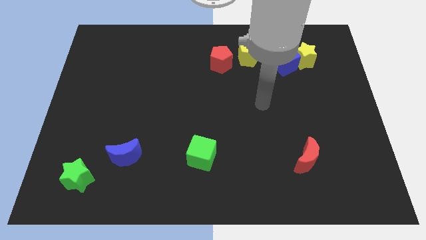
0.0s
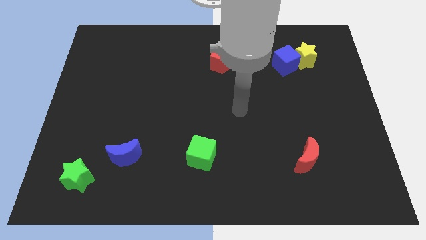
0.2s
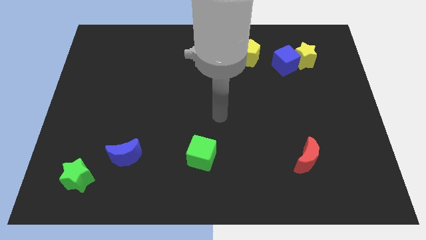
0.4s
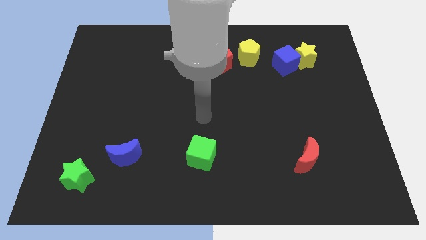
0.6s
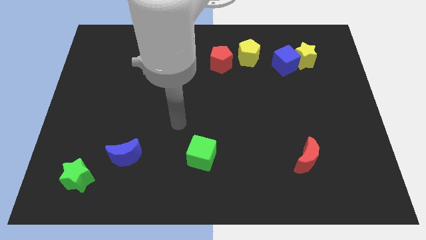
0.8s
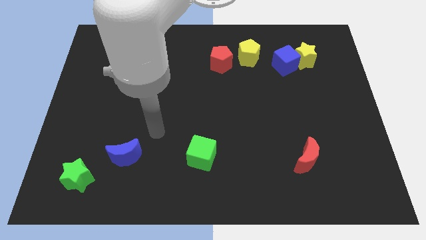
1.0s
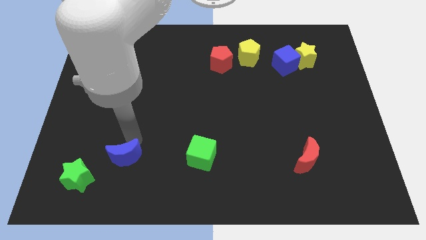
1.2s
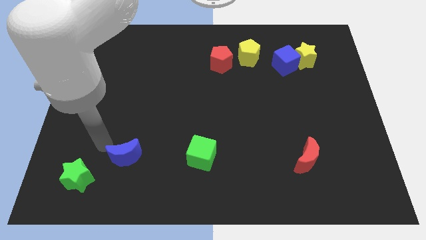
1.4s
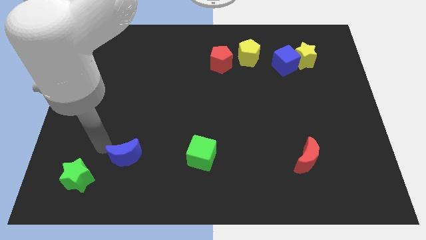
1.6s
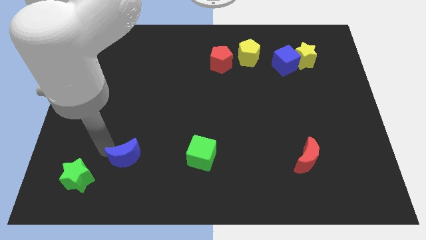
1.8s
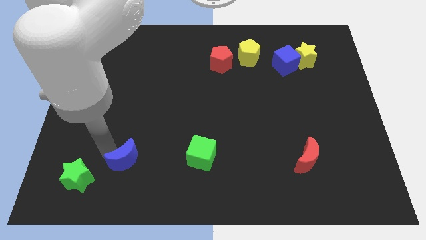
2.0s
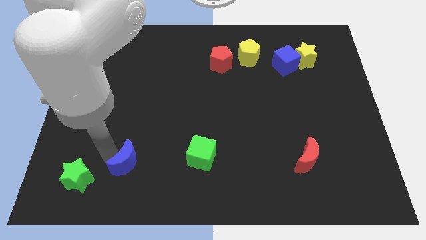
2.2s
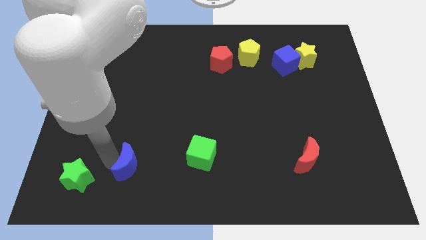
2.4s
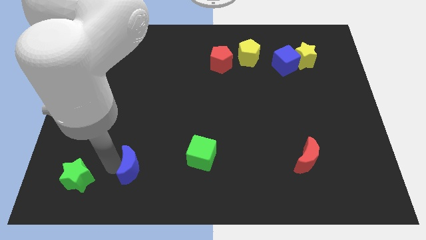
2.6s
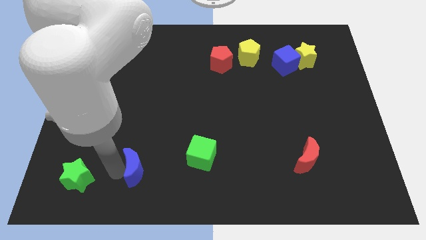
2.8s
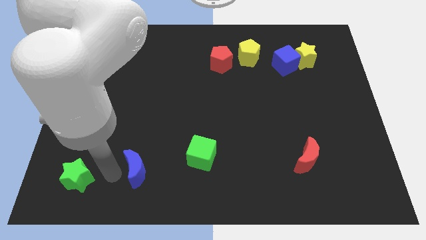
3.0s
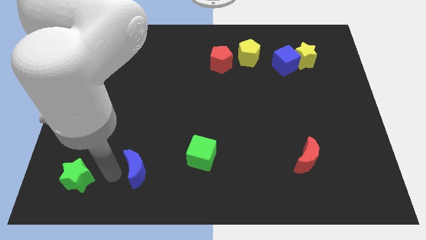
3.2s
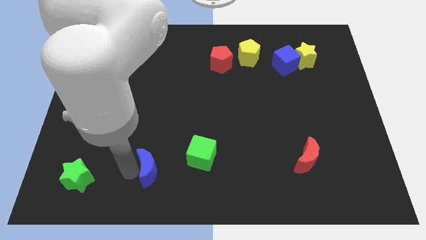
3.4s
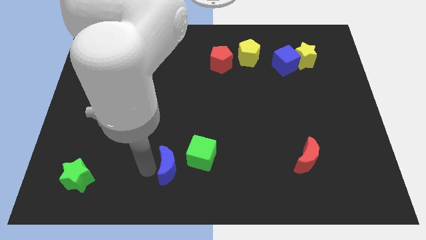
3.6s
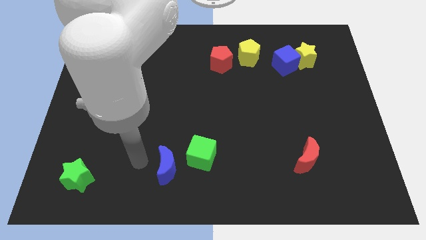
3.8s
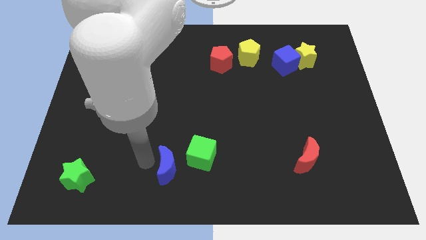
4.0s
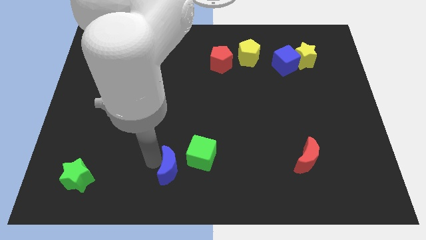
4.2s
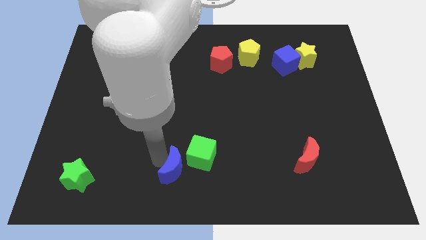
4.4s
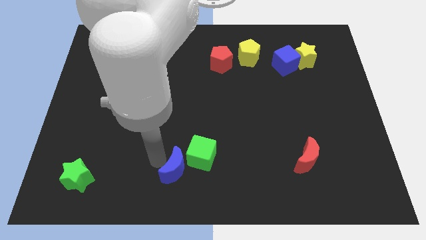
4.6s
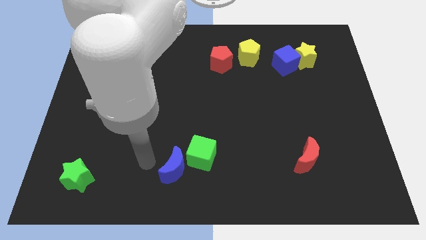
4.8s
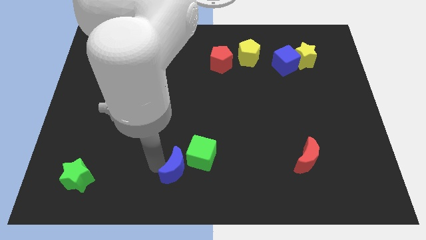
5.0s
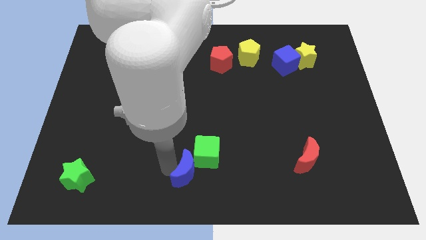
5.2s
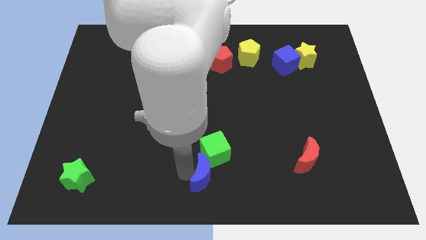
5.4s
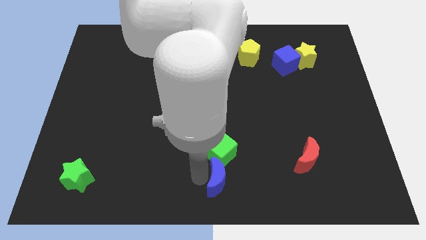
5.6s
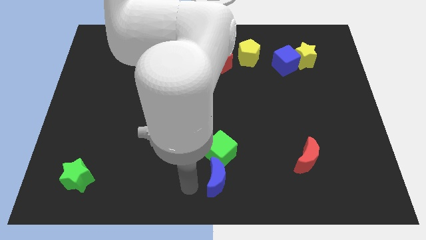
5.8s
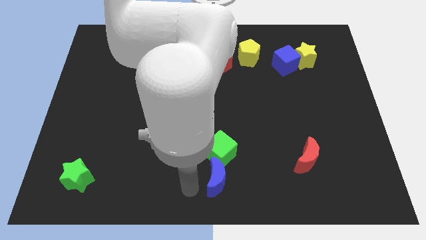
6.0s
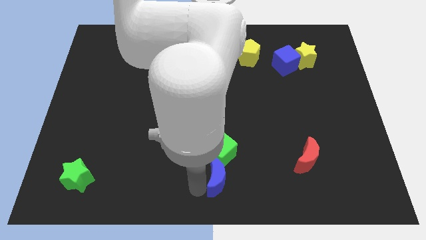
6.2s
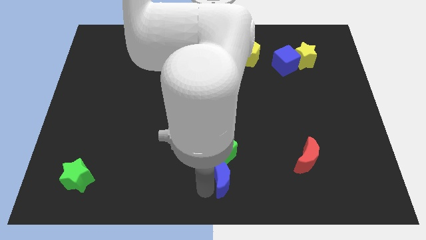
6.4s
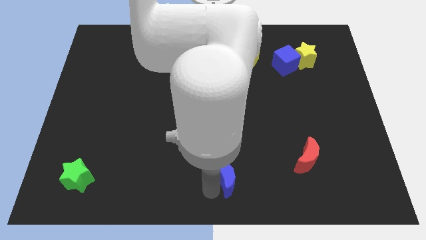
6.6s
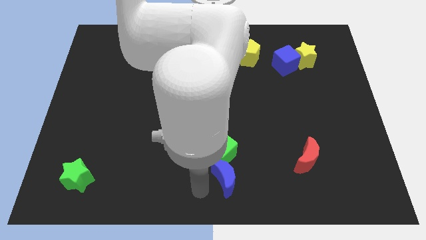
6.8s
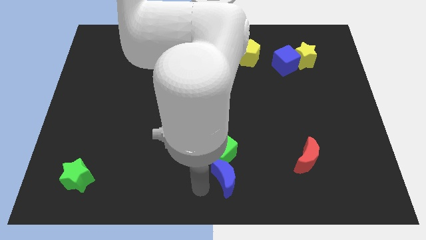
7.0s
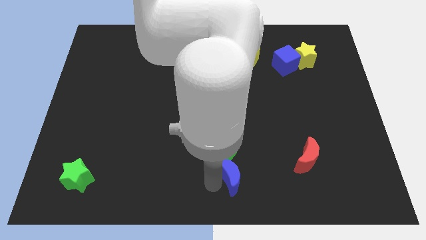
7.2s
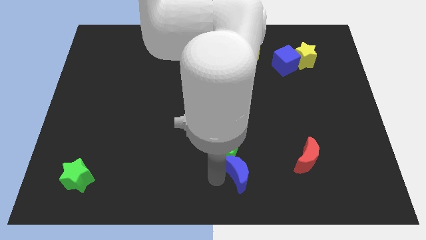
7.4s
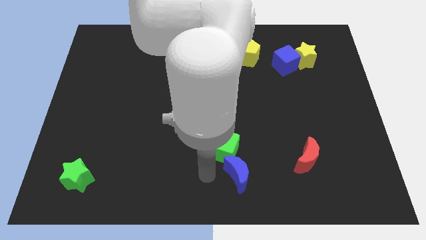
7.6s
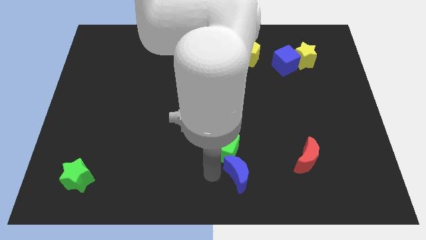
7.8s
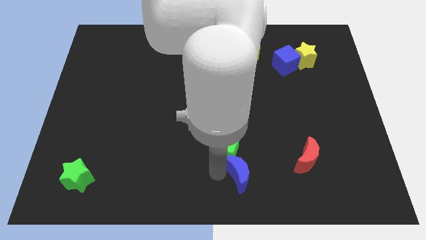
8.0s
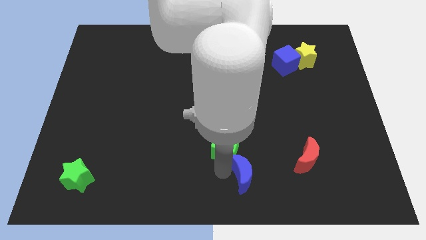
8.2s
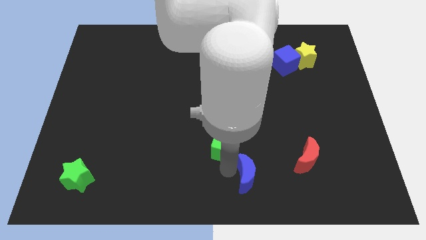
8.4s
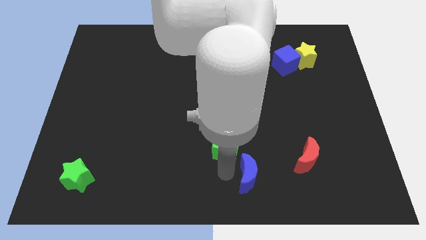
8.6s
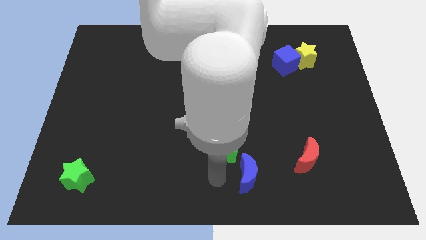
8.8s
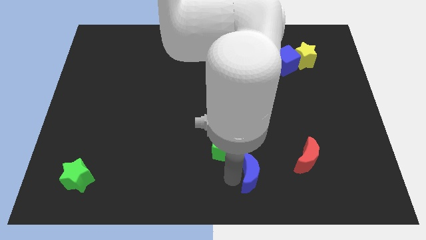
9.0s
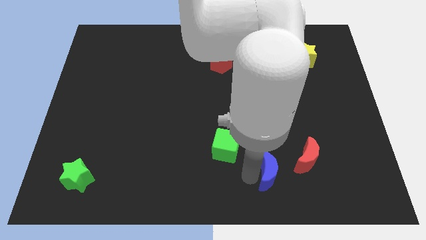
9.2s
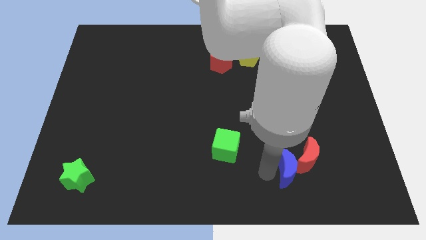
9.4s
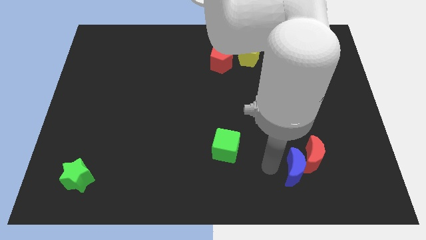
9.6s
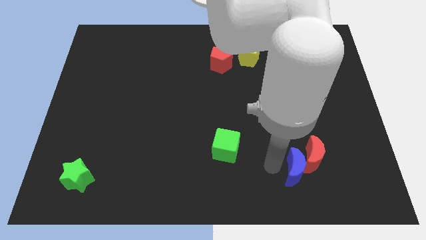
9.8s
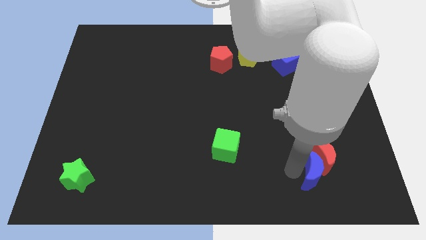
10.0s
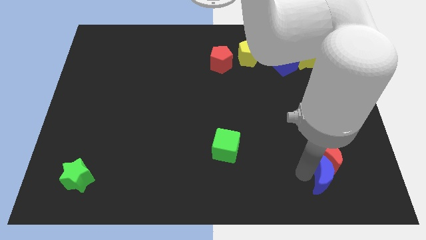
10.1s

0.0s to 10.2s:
slide the blue moon diagonally down and to the right of the red moon

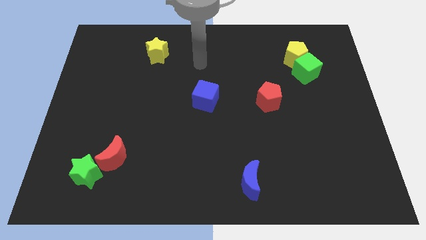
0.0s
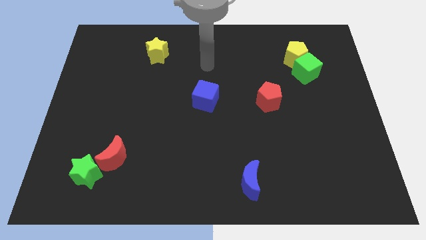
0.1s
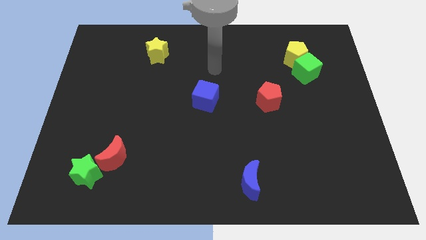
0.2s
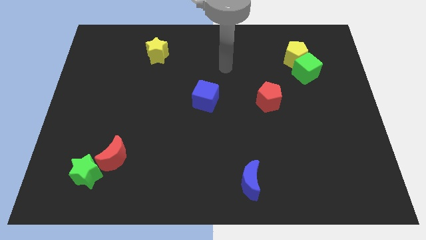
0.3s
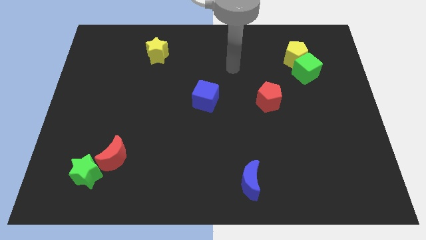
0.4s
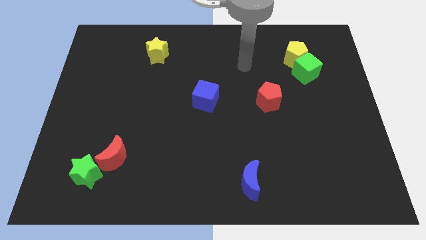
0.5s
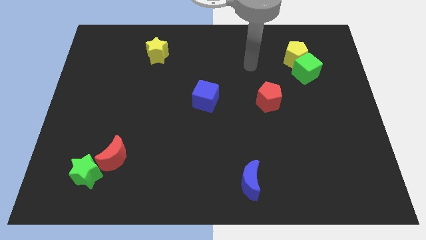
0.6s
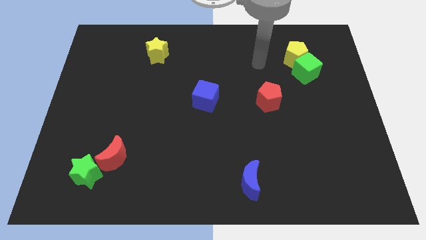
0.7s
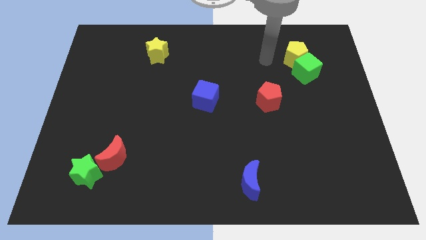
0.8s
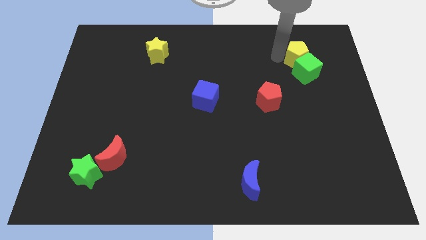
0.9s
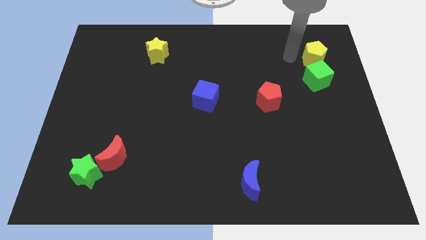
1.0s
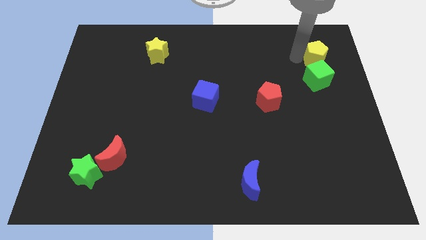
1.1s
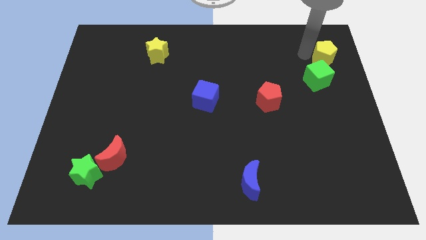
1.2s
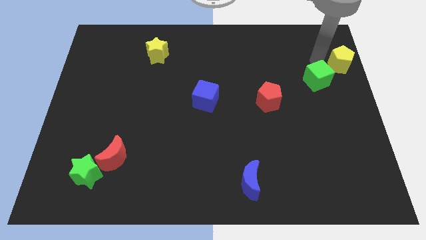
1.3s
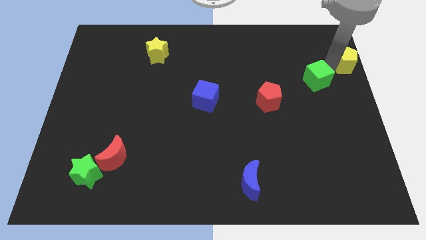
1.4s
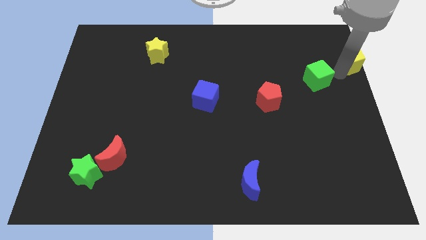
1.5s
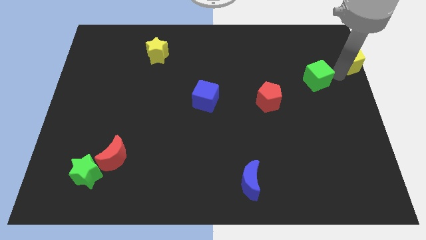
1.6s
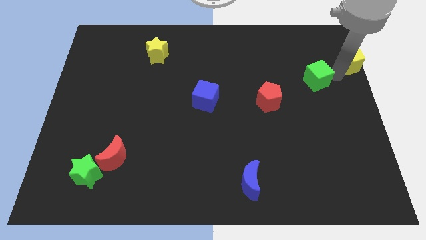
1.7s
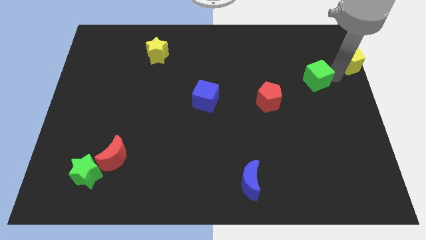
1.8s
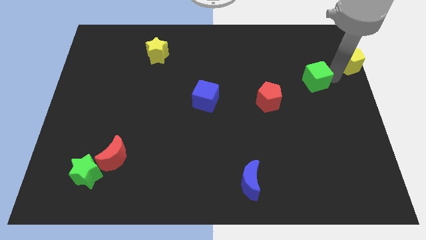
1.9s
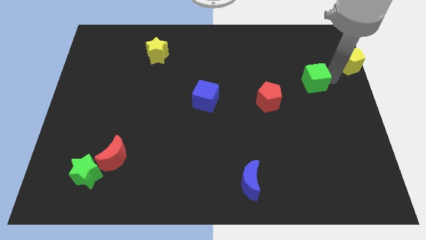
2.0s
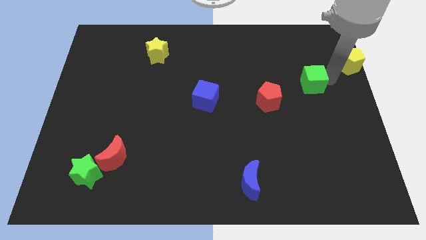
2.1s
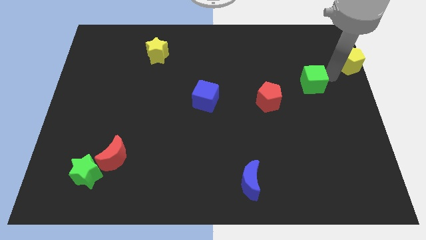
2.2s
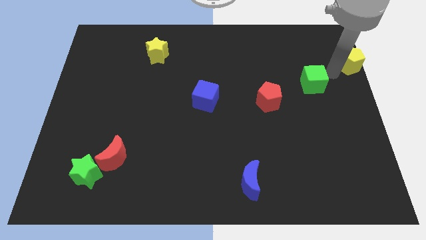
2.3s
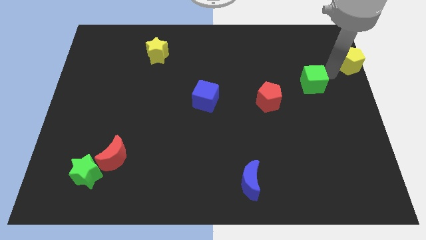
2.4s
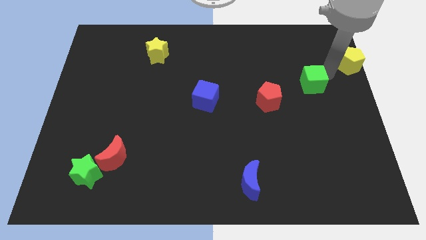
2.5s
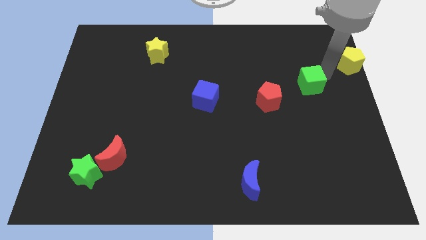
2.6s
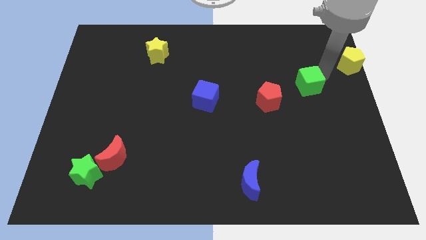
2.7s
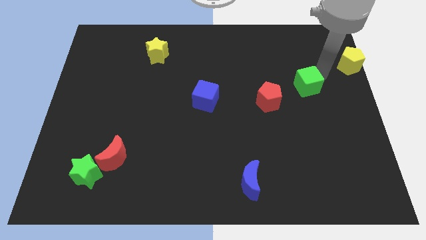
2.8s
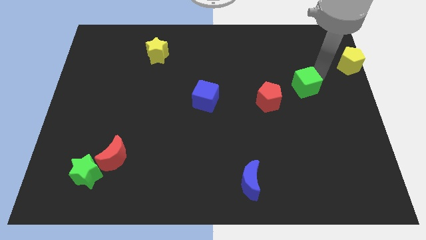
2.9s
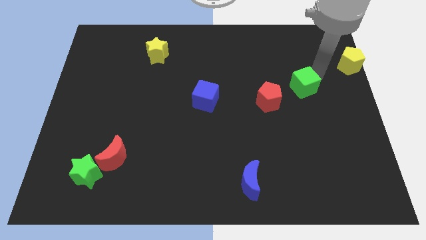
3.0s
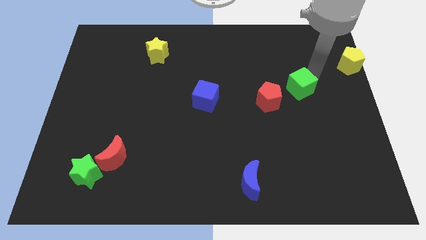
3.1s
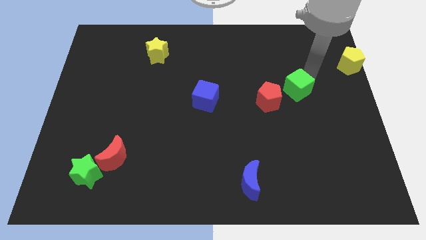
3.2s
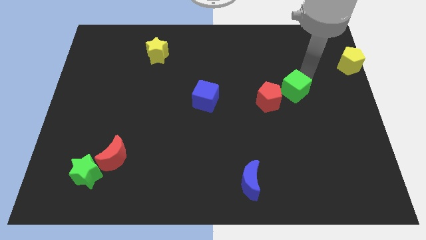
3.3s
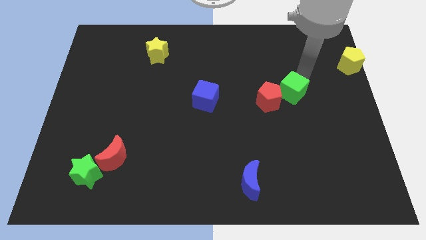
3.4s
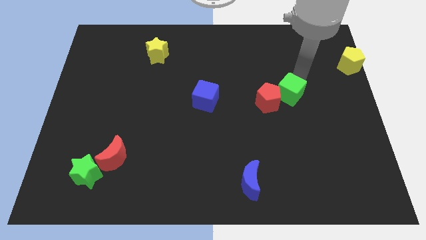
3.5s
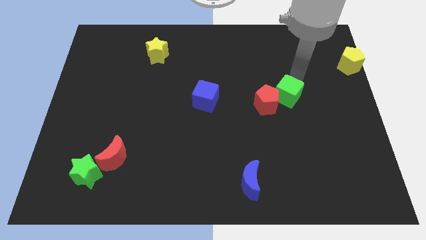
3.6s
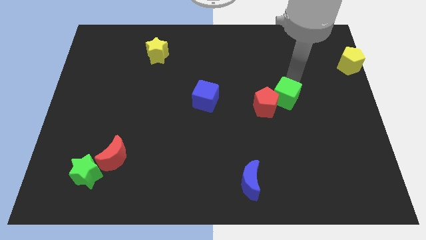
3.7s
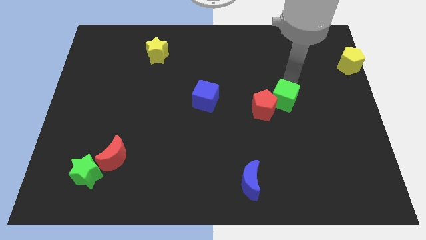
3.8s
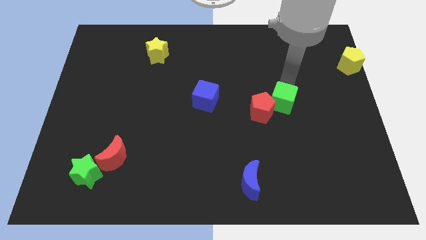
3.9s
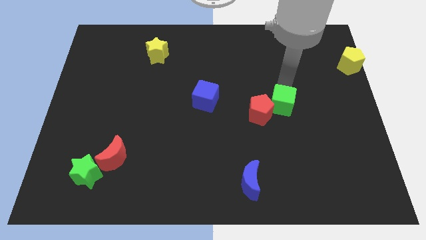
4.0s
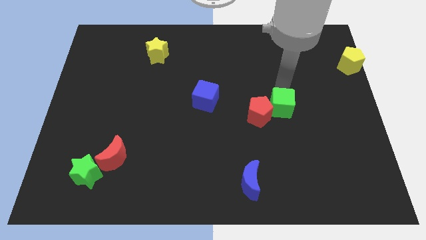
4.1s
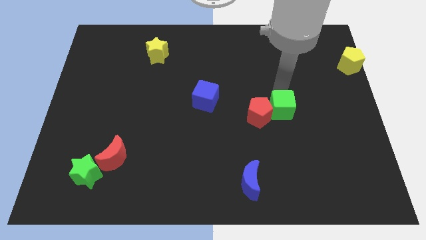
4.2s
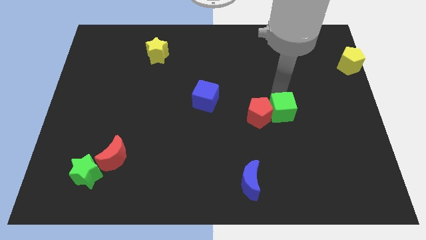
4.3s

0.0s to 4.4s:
put the green cube diagonally down and to the right of the red pentagon
